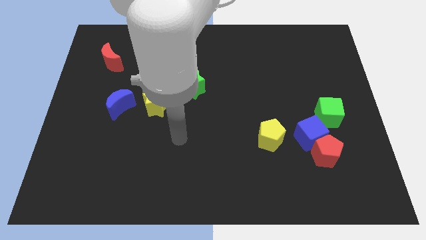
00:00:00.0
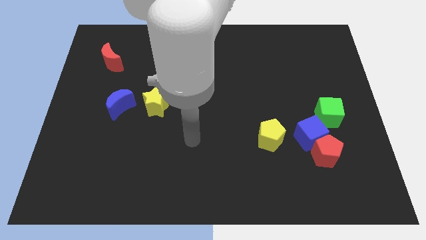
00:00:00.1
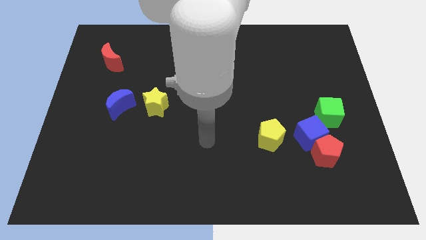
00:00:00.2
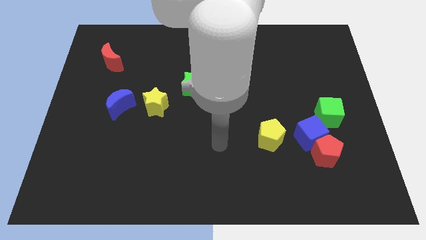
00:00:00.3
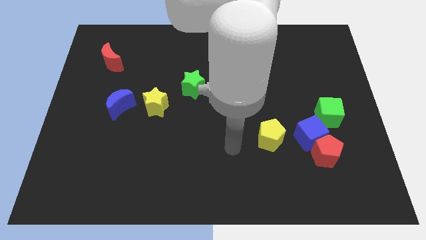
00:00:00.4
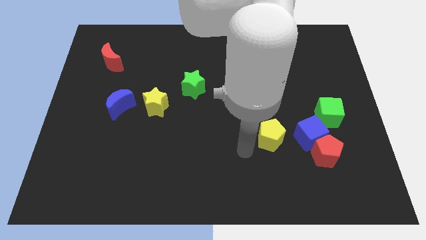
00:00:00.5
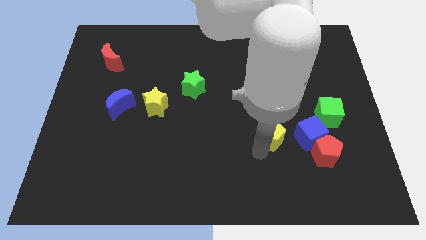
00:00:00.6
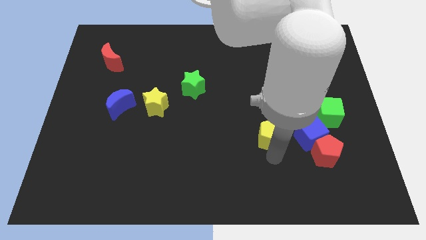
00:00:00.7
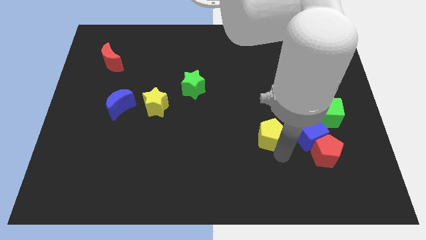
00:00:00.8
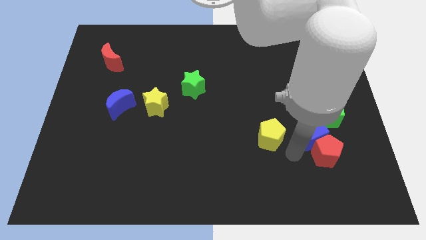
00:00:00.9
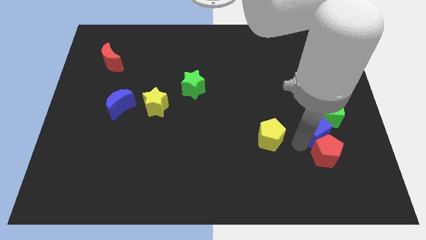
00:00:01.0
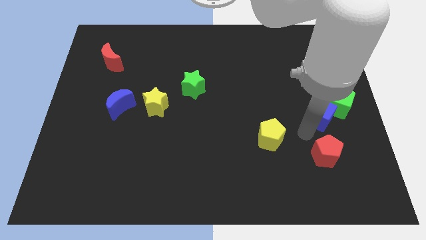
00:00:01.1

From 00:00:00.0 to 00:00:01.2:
move the red pentagon away from the blue cube

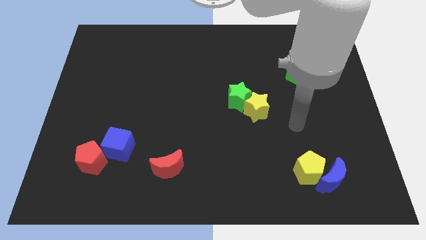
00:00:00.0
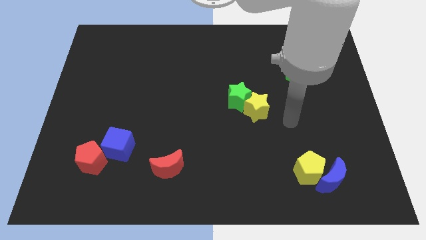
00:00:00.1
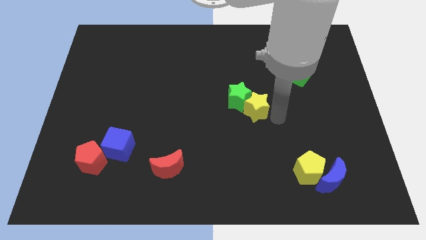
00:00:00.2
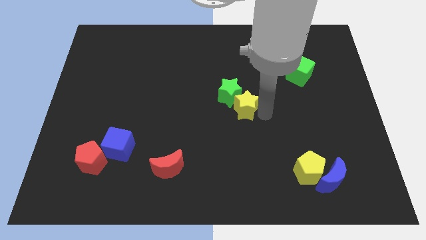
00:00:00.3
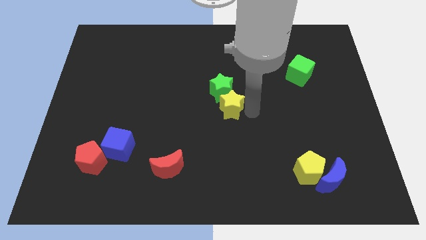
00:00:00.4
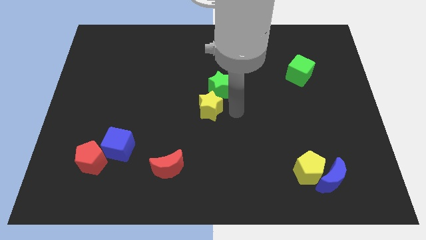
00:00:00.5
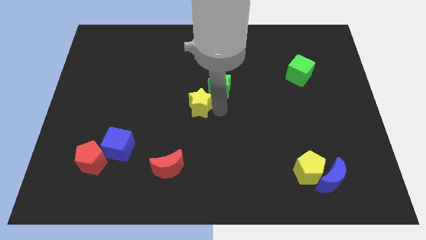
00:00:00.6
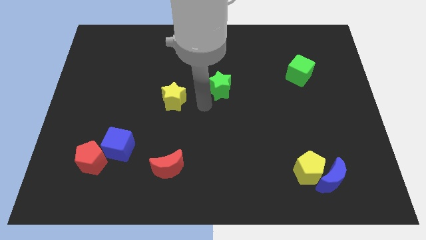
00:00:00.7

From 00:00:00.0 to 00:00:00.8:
separate the green star from the yellow star

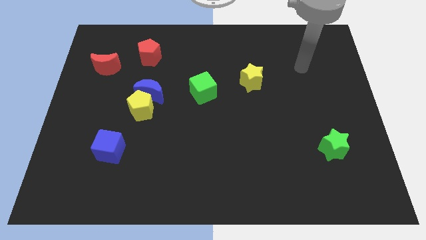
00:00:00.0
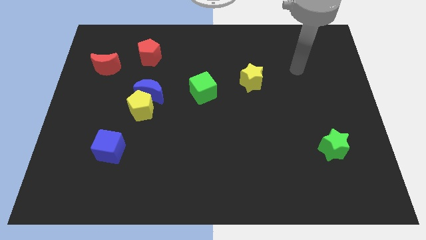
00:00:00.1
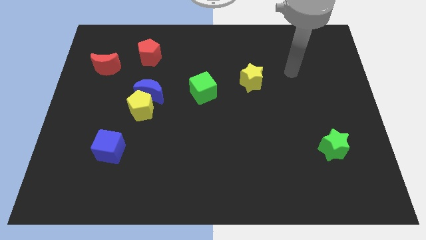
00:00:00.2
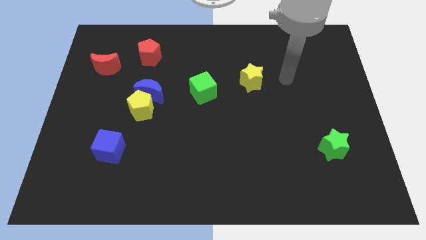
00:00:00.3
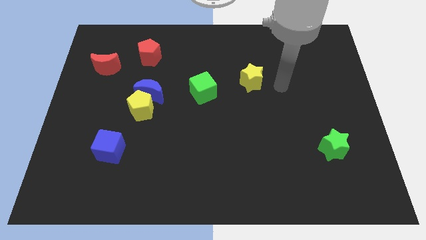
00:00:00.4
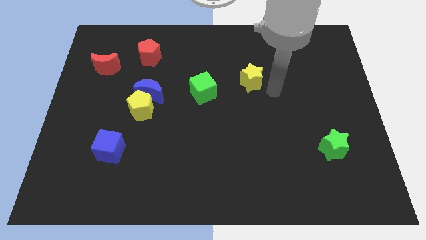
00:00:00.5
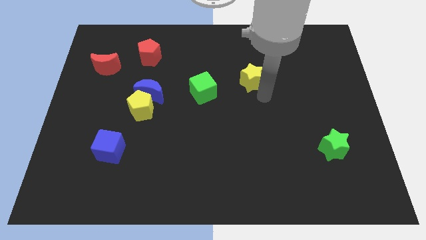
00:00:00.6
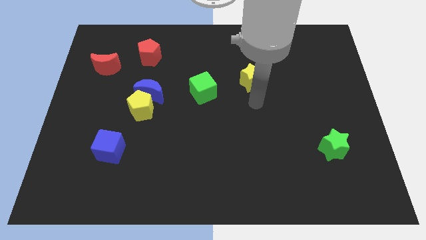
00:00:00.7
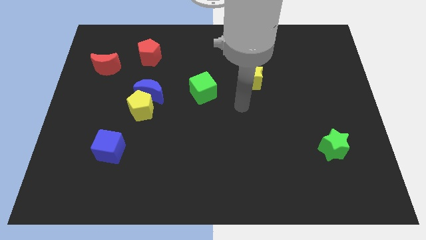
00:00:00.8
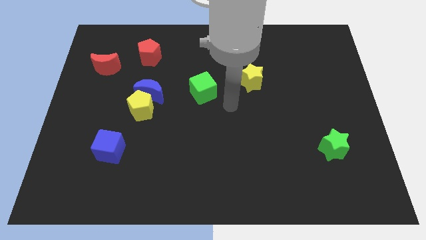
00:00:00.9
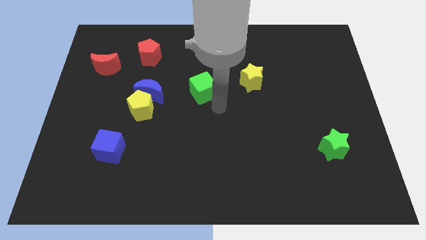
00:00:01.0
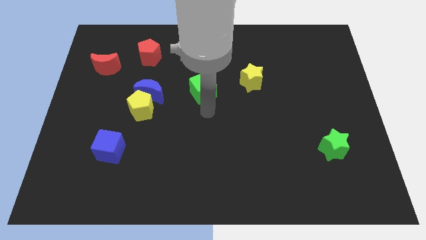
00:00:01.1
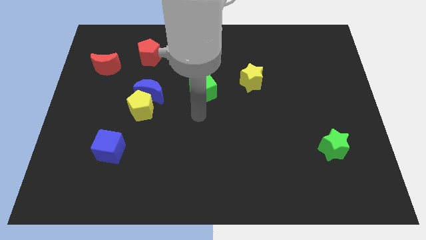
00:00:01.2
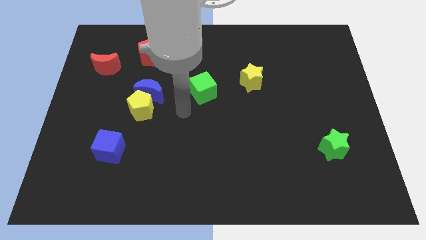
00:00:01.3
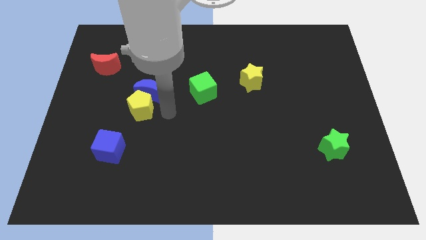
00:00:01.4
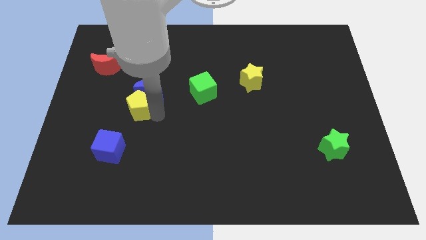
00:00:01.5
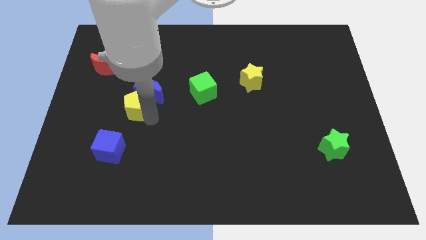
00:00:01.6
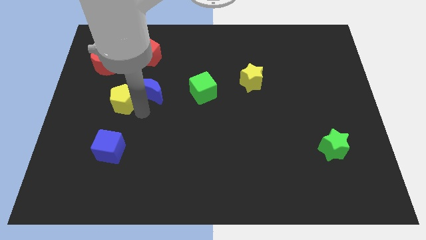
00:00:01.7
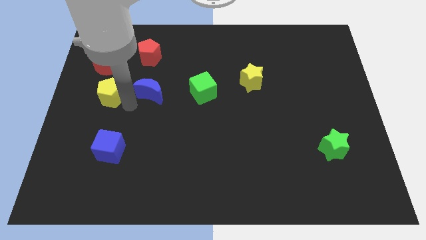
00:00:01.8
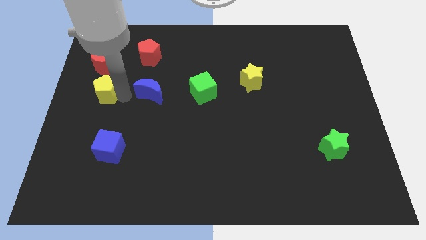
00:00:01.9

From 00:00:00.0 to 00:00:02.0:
separate the blue moon from the yellow pentagon

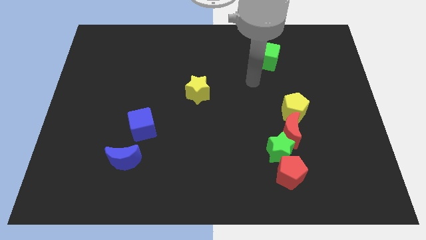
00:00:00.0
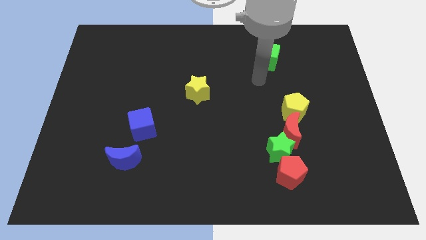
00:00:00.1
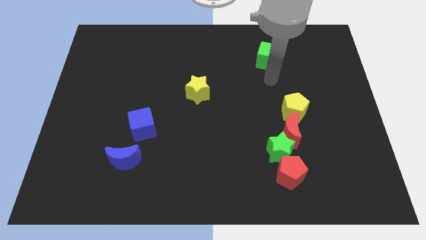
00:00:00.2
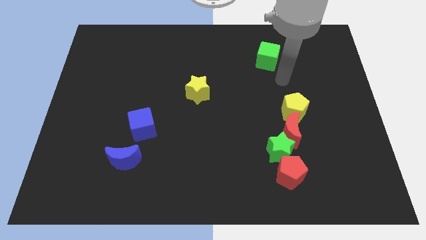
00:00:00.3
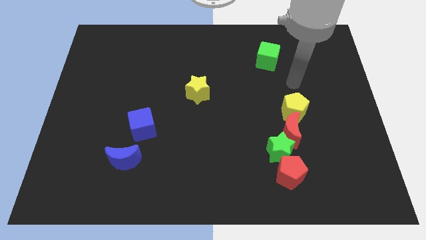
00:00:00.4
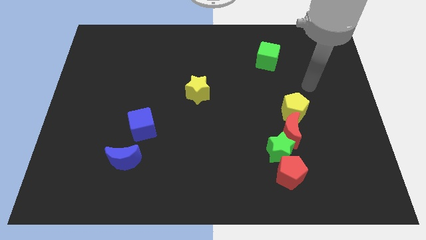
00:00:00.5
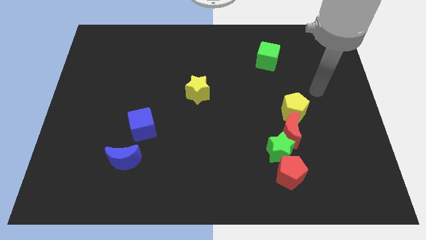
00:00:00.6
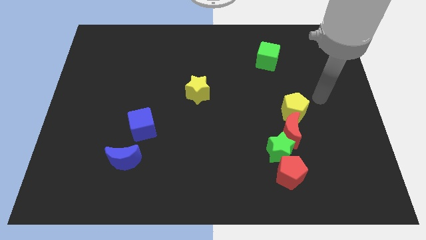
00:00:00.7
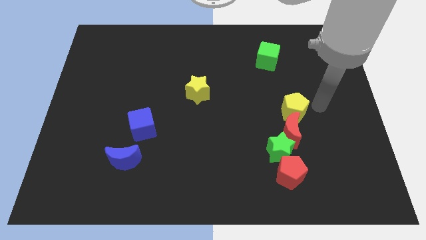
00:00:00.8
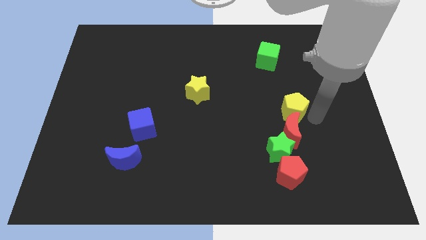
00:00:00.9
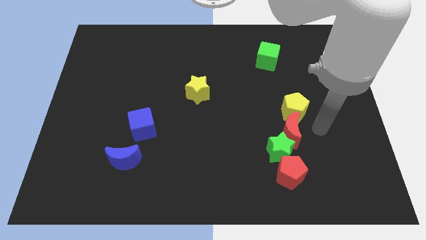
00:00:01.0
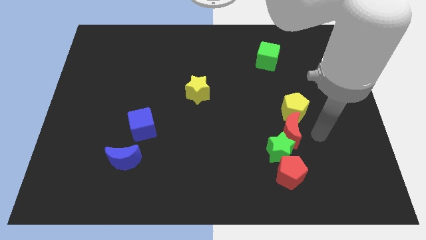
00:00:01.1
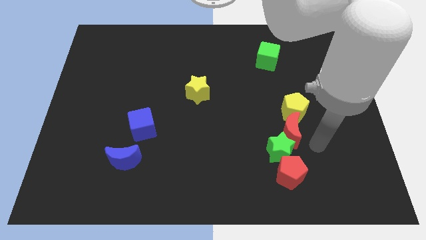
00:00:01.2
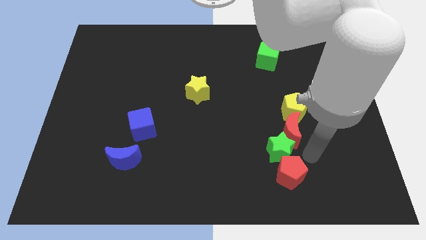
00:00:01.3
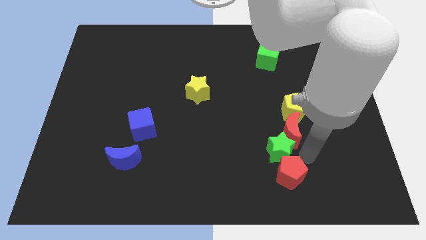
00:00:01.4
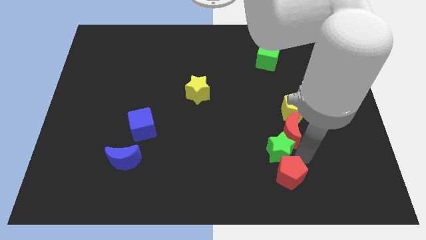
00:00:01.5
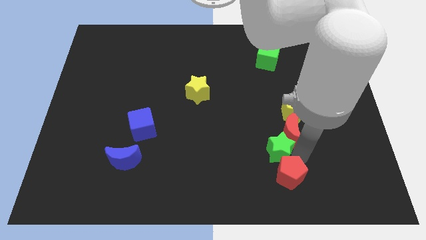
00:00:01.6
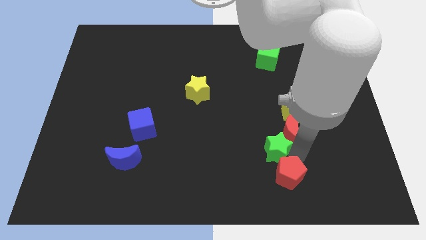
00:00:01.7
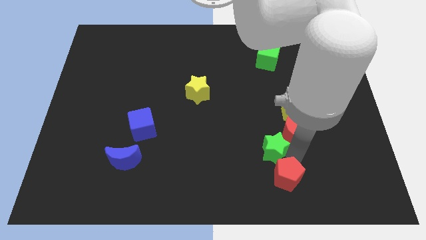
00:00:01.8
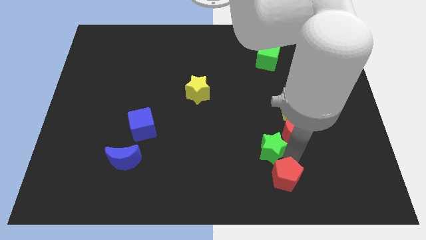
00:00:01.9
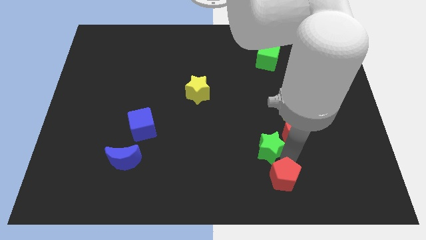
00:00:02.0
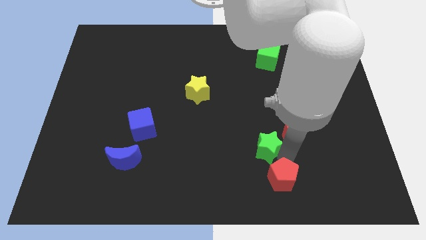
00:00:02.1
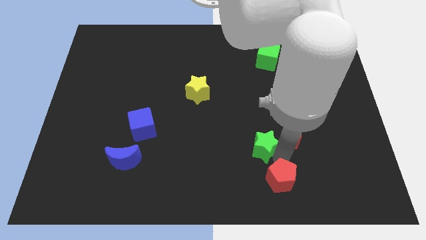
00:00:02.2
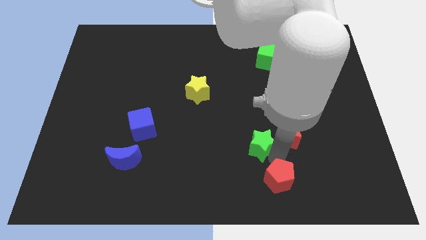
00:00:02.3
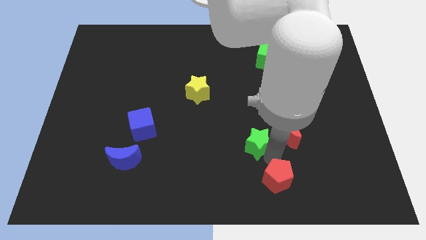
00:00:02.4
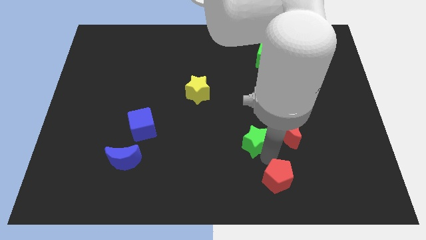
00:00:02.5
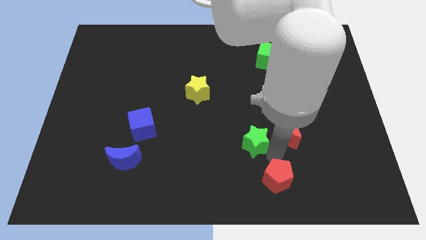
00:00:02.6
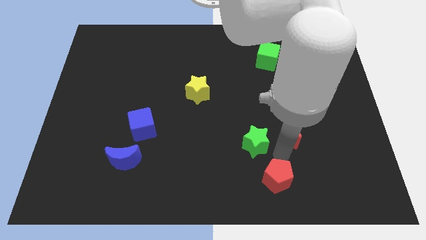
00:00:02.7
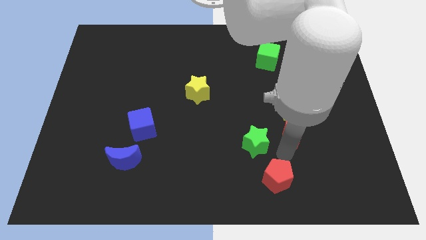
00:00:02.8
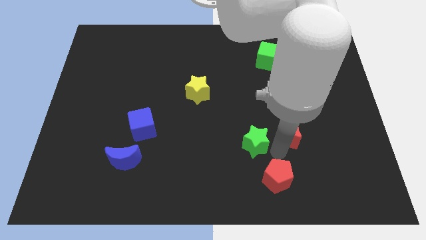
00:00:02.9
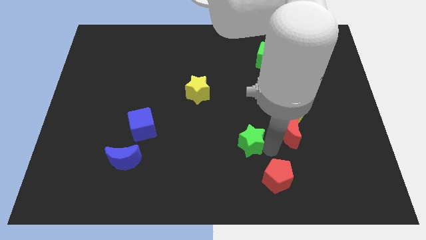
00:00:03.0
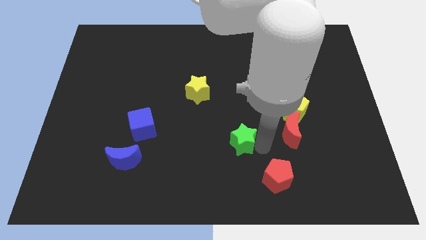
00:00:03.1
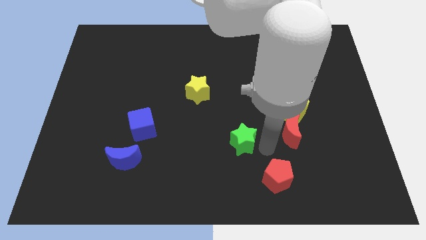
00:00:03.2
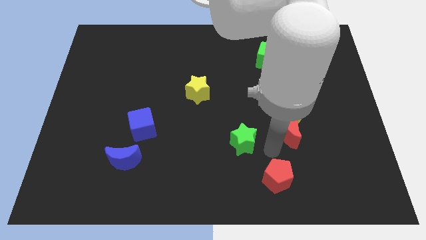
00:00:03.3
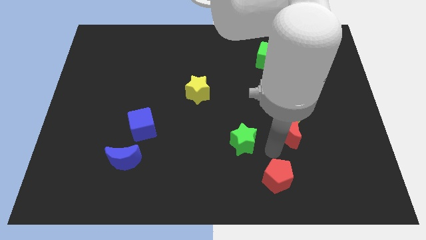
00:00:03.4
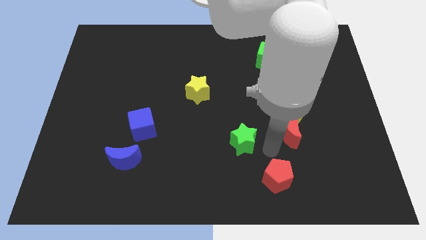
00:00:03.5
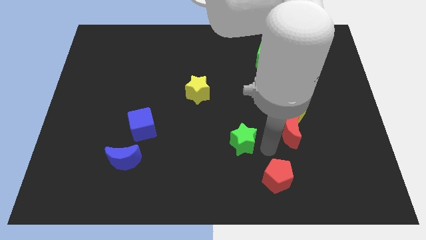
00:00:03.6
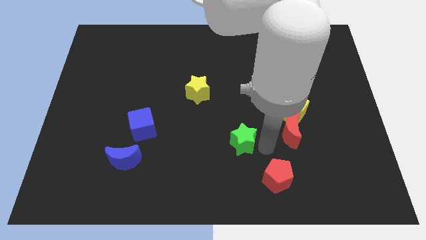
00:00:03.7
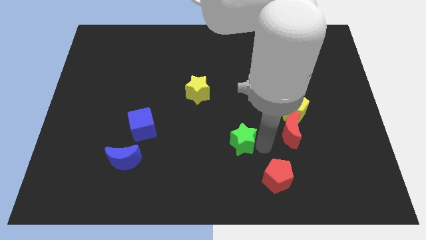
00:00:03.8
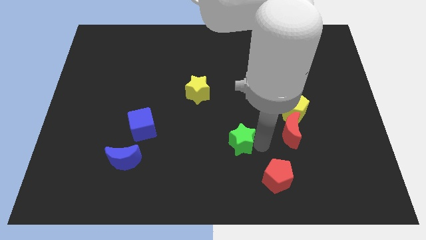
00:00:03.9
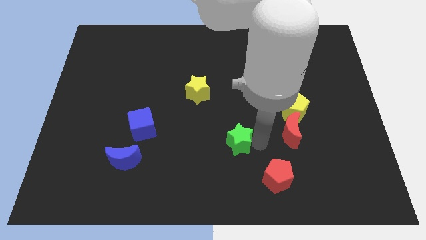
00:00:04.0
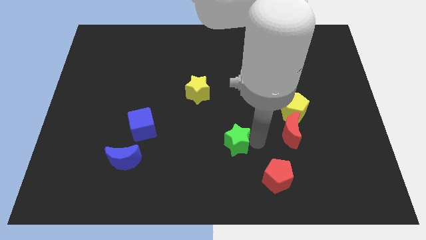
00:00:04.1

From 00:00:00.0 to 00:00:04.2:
move the green star away from the red moon and red pentagon

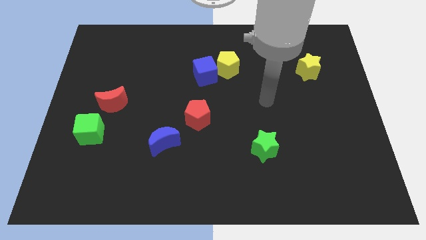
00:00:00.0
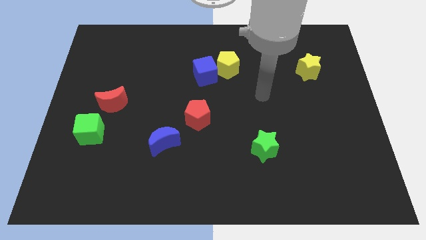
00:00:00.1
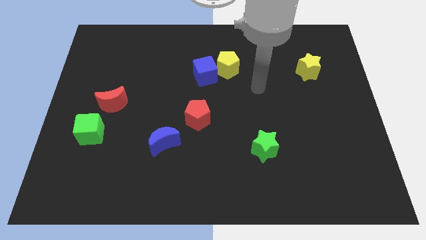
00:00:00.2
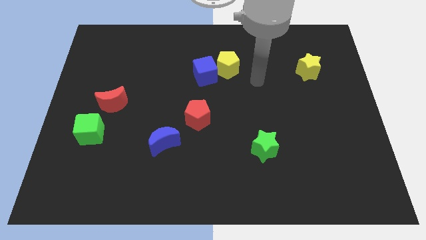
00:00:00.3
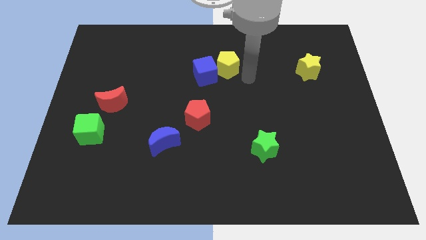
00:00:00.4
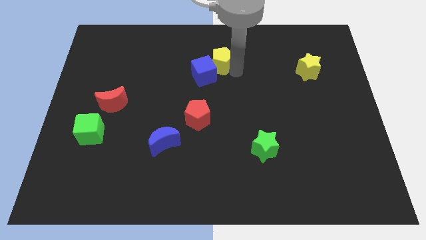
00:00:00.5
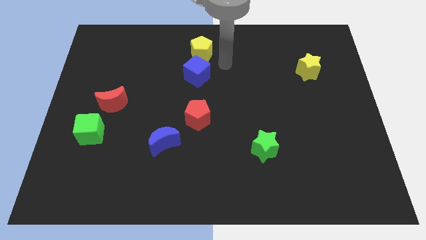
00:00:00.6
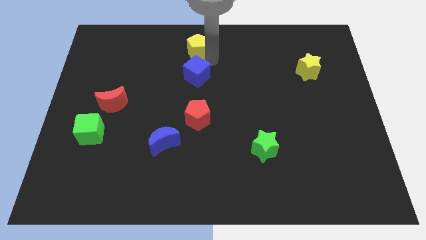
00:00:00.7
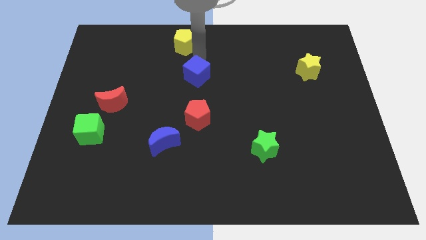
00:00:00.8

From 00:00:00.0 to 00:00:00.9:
pull the blue cube apart from the yellow pentagon

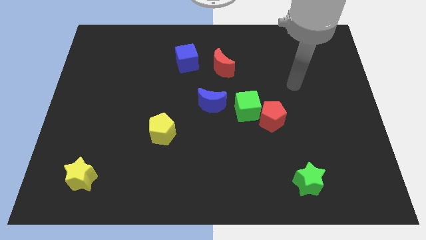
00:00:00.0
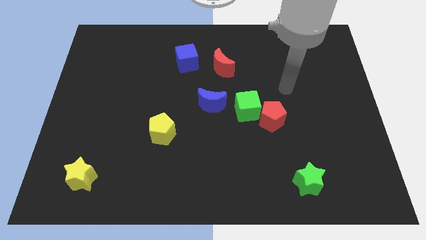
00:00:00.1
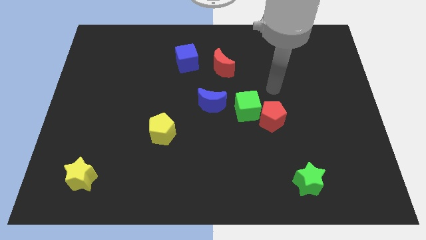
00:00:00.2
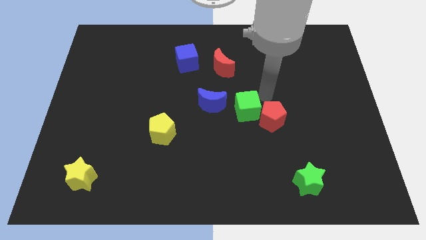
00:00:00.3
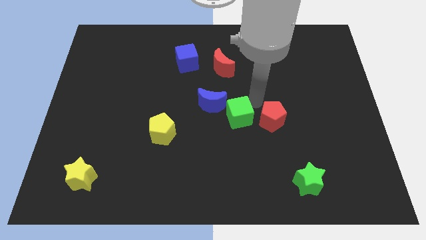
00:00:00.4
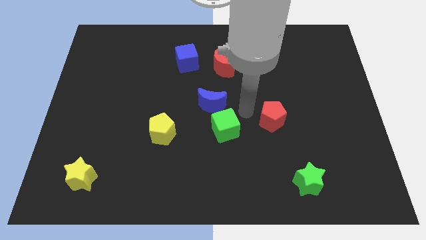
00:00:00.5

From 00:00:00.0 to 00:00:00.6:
pull the red pentagon apart from the green cube
